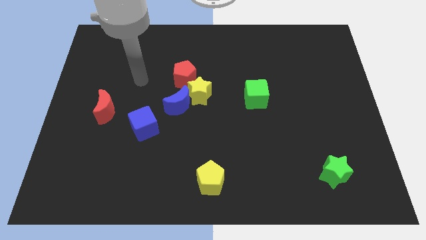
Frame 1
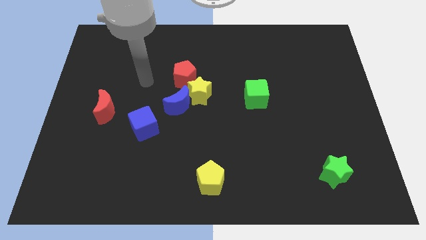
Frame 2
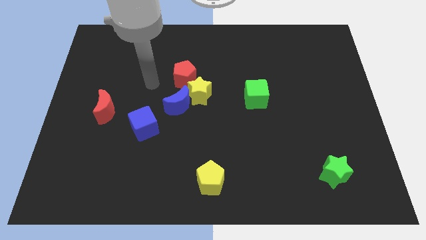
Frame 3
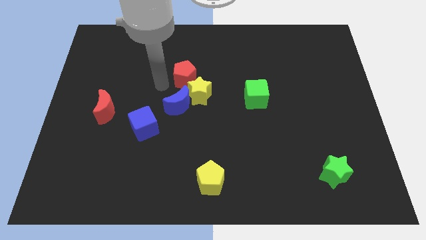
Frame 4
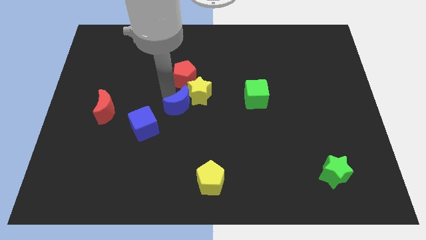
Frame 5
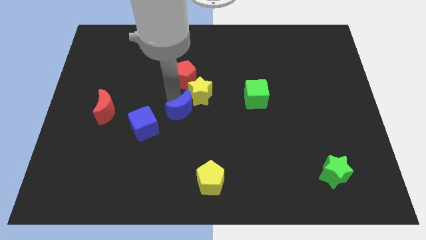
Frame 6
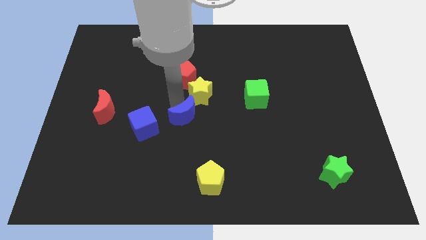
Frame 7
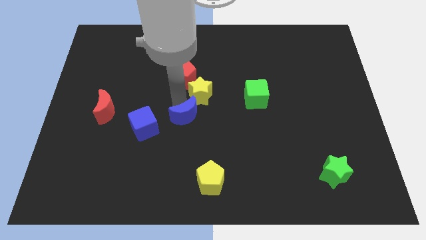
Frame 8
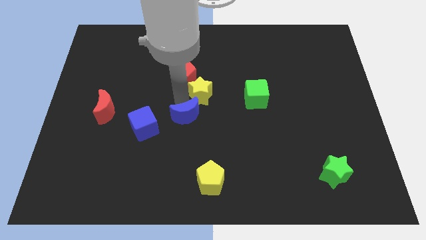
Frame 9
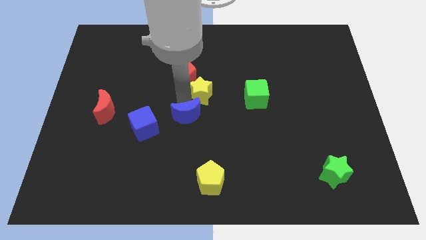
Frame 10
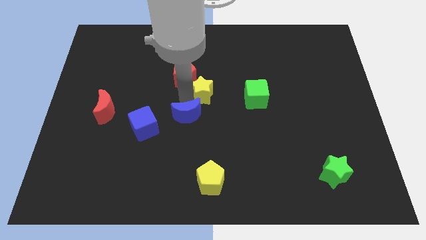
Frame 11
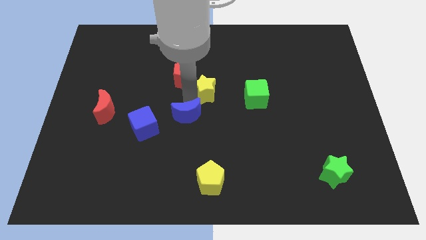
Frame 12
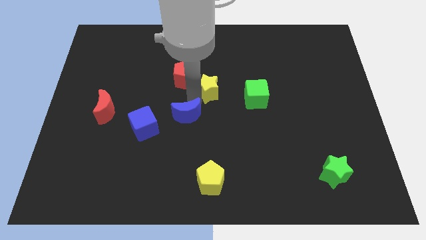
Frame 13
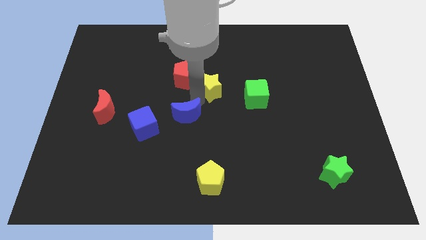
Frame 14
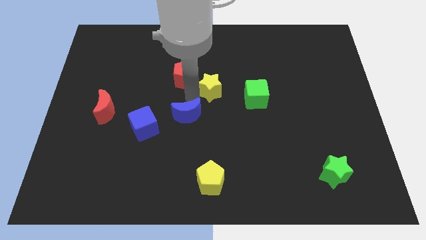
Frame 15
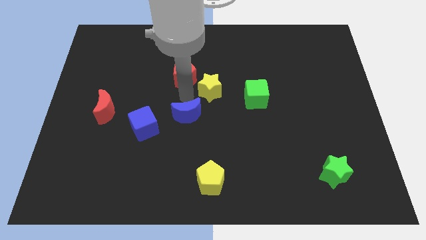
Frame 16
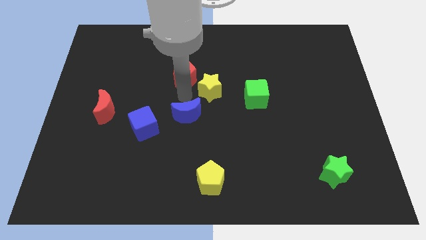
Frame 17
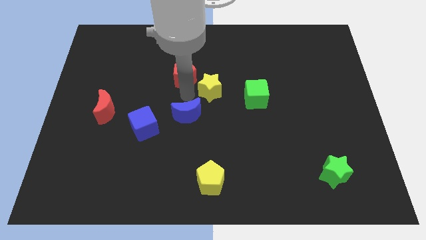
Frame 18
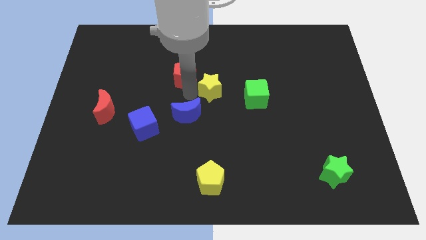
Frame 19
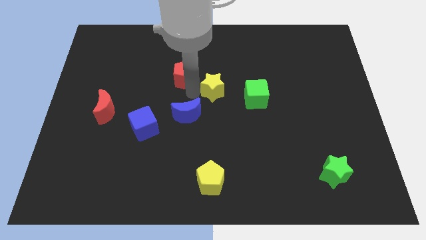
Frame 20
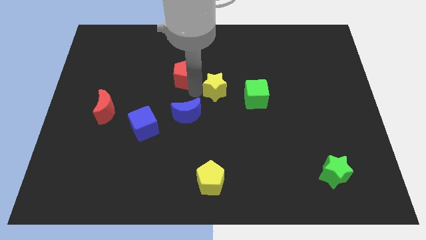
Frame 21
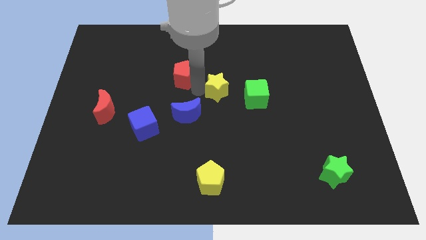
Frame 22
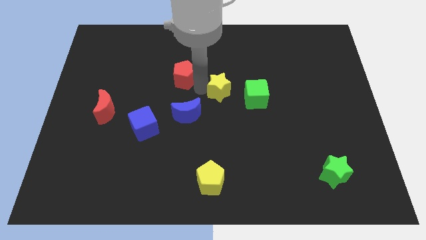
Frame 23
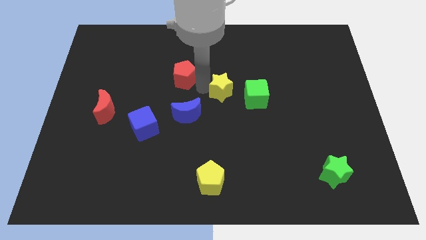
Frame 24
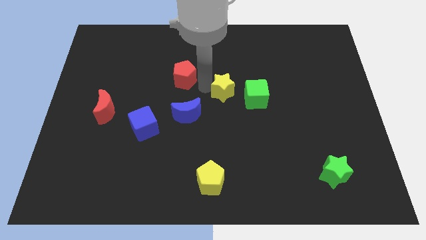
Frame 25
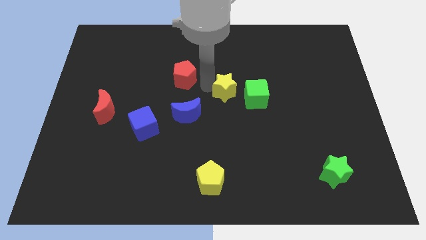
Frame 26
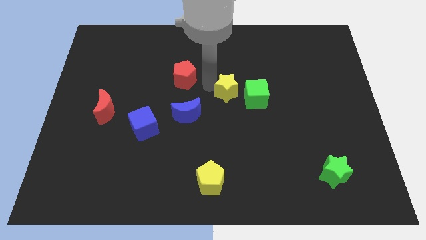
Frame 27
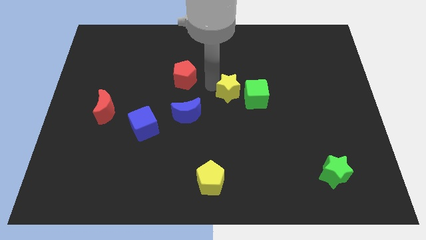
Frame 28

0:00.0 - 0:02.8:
separate the yellow star from the blue moon and red pentagon

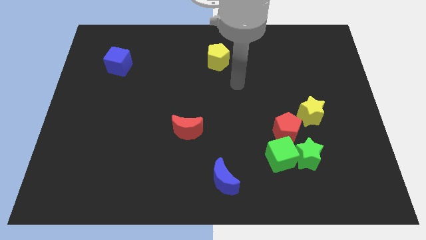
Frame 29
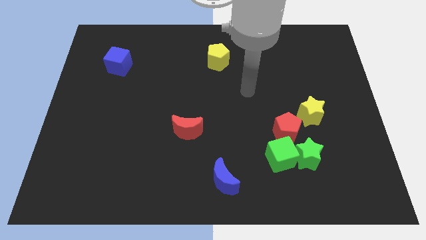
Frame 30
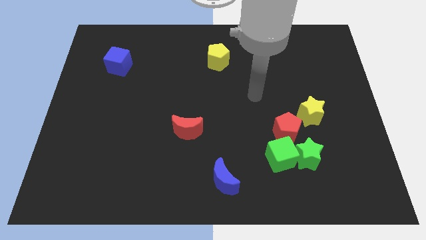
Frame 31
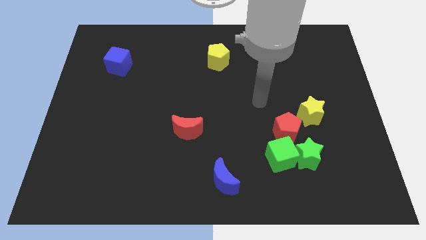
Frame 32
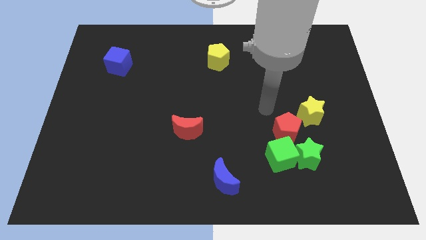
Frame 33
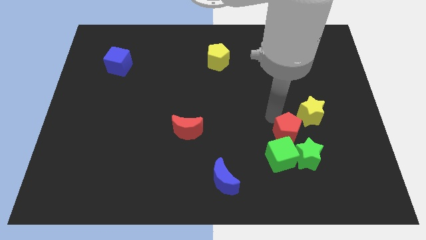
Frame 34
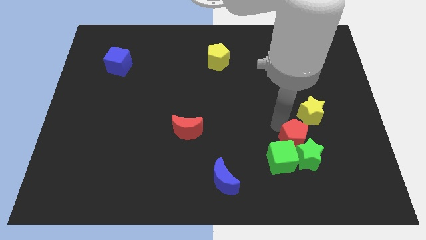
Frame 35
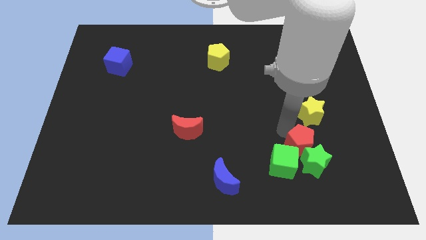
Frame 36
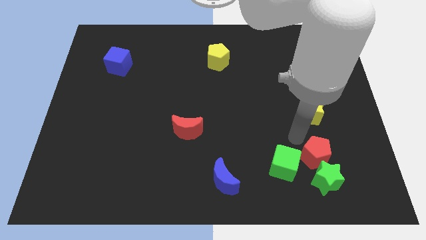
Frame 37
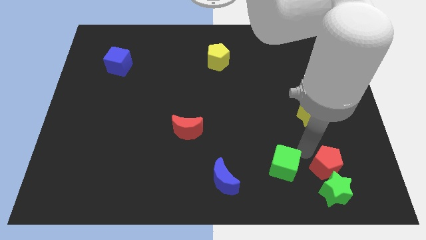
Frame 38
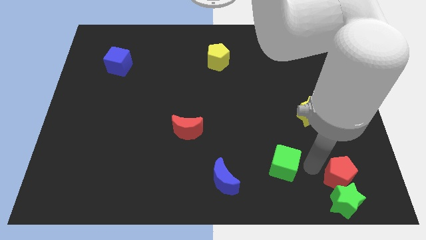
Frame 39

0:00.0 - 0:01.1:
move the green cube away from the green star and red pentagon

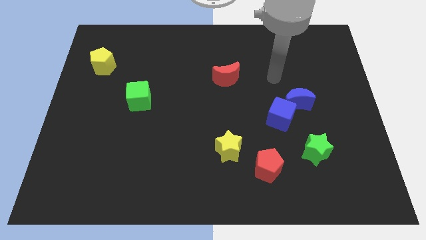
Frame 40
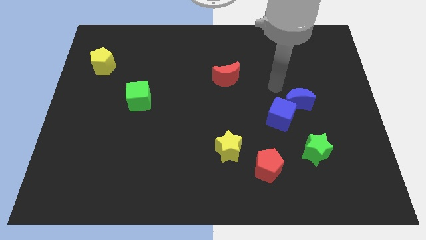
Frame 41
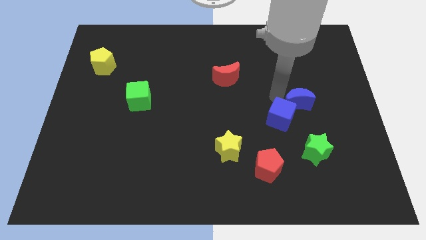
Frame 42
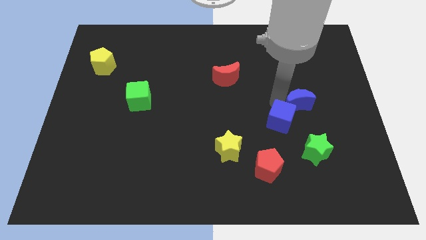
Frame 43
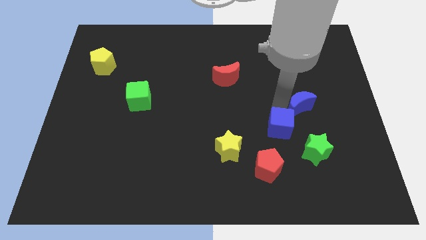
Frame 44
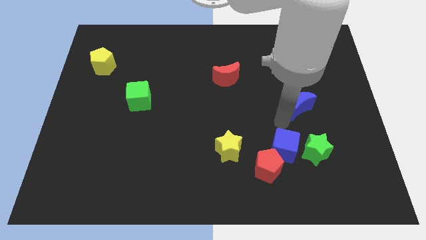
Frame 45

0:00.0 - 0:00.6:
pull the blue moon apart from the blue cube

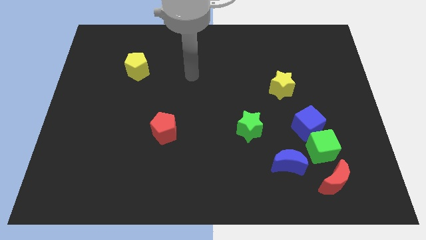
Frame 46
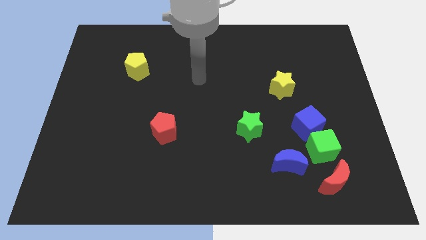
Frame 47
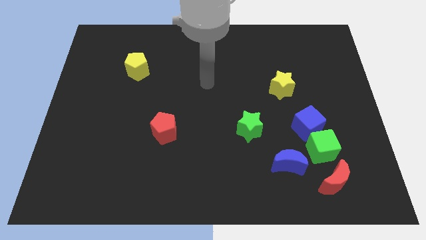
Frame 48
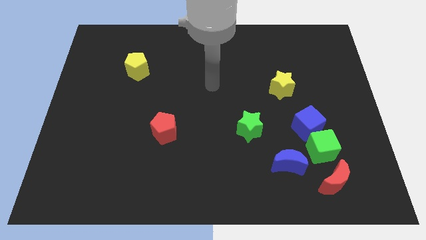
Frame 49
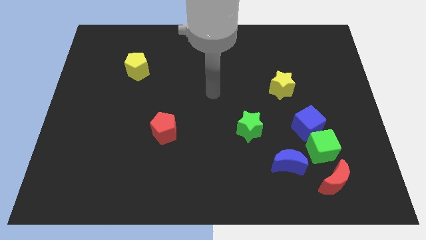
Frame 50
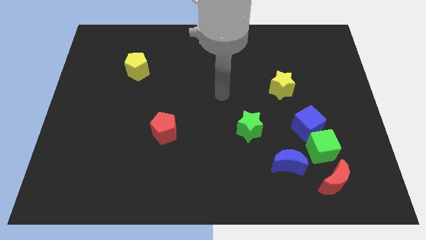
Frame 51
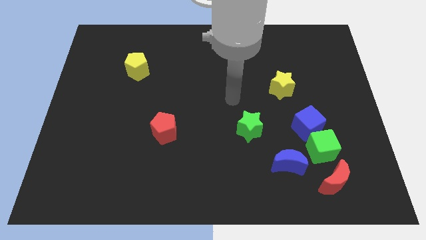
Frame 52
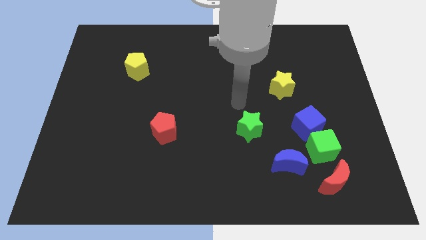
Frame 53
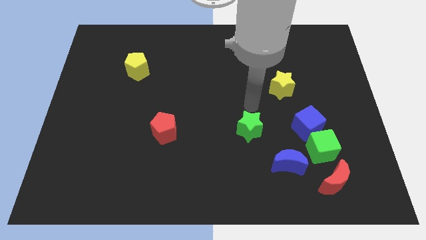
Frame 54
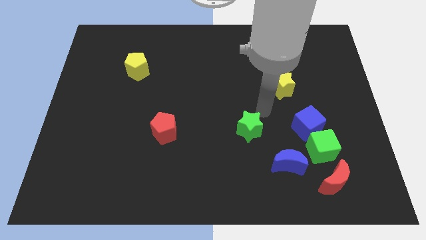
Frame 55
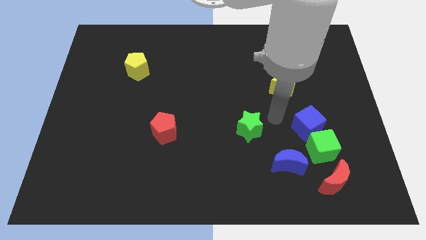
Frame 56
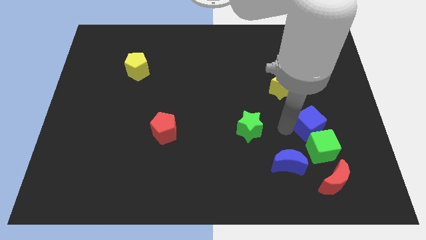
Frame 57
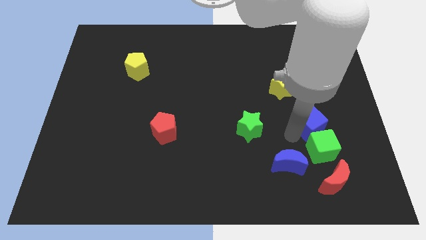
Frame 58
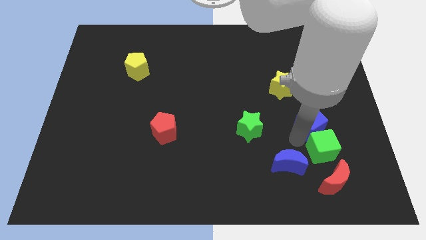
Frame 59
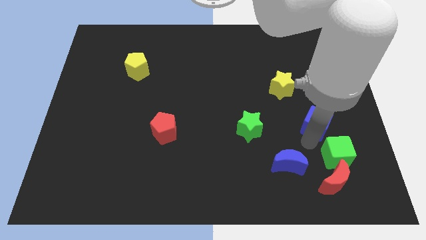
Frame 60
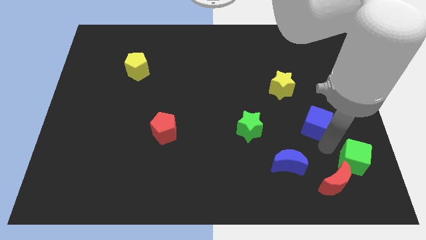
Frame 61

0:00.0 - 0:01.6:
separate the blue cube from the green cube

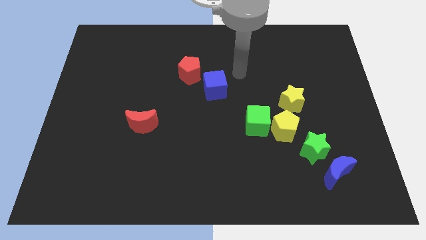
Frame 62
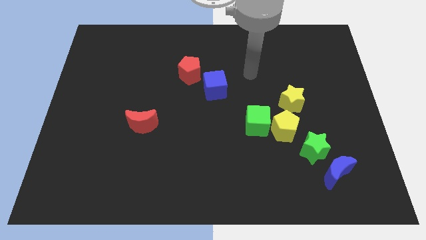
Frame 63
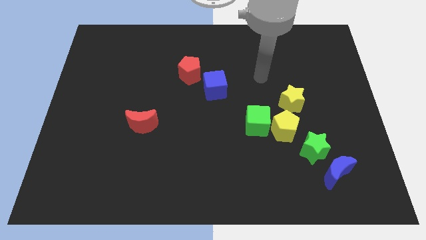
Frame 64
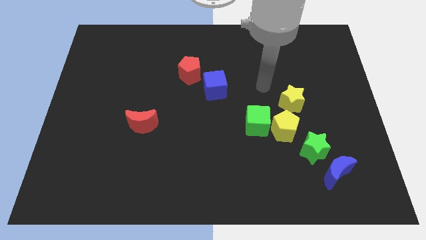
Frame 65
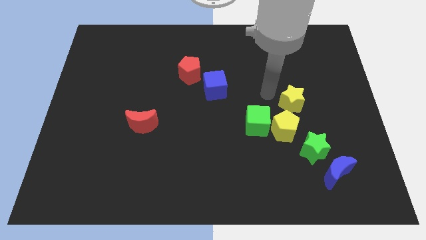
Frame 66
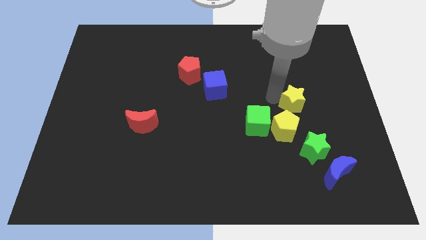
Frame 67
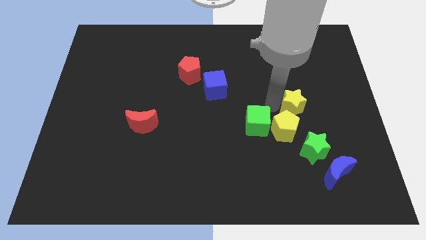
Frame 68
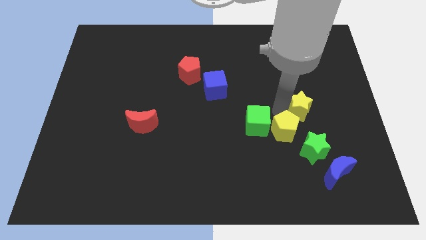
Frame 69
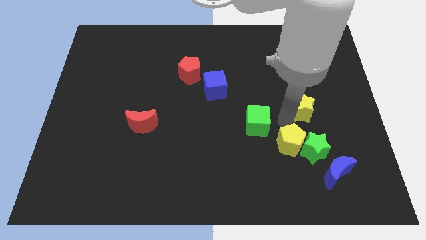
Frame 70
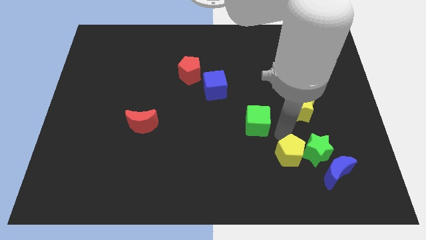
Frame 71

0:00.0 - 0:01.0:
separate the green cube from the yellow pentagon

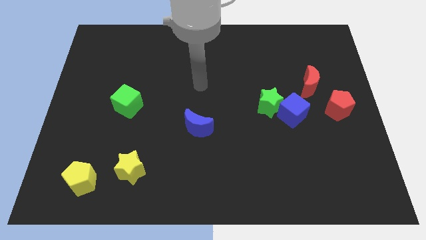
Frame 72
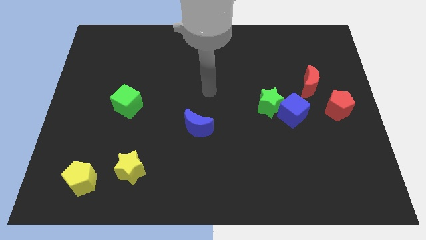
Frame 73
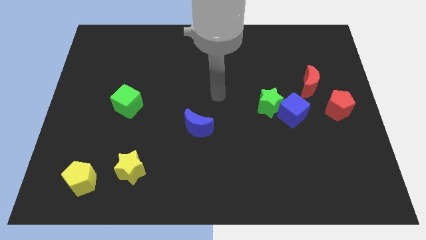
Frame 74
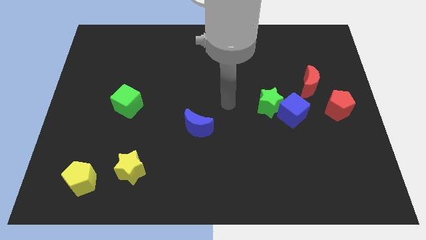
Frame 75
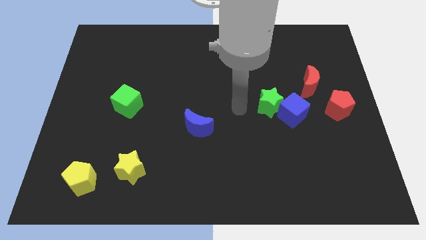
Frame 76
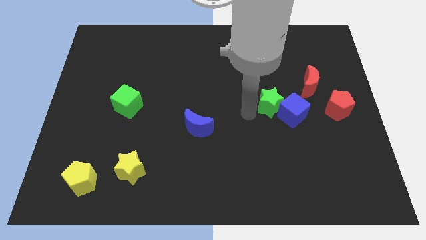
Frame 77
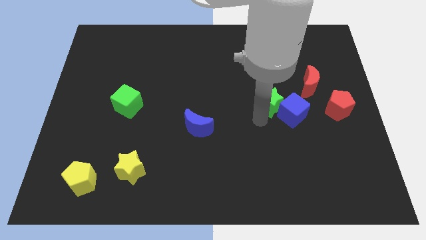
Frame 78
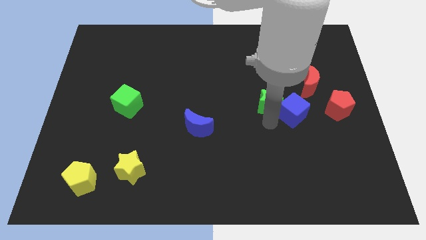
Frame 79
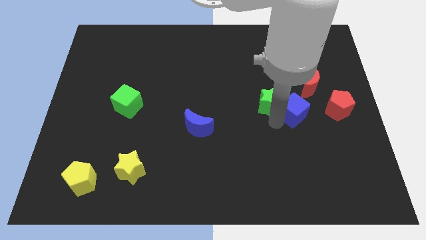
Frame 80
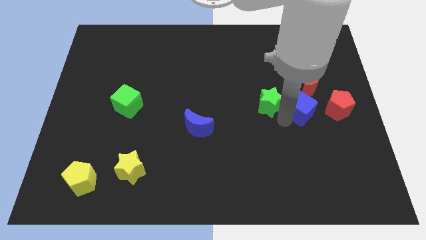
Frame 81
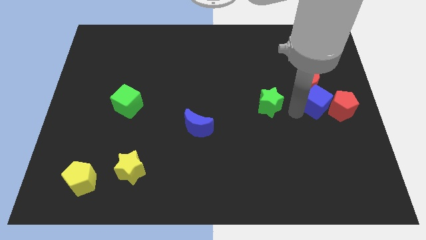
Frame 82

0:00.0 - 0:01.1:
pull the green star apart from the blue cube

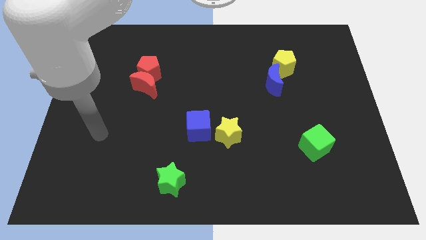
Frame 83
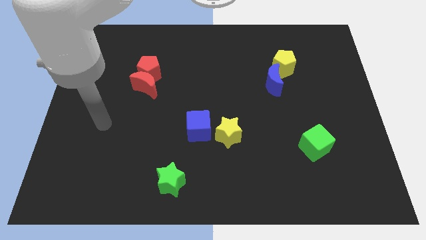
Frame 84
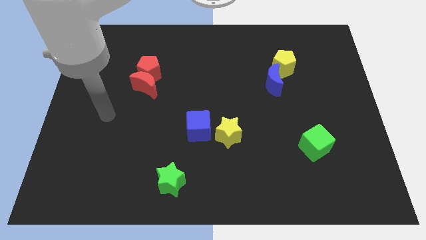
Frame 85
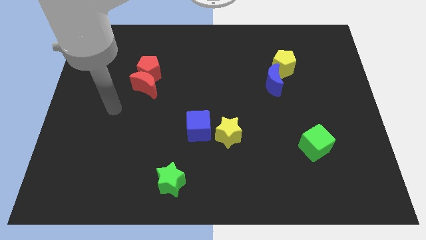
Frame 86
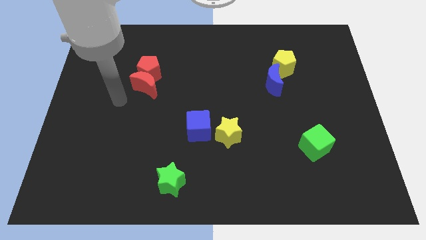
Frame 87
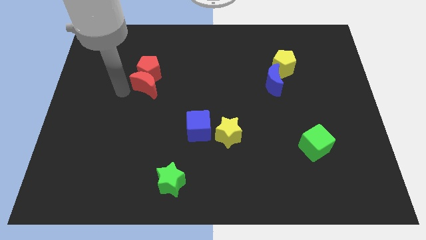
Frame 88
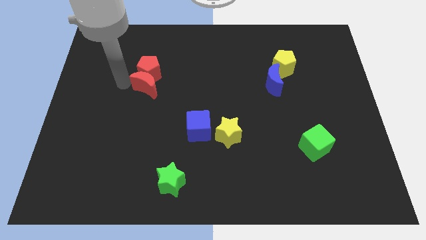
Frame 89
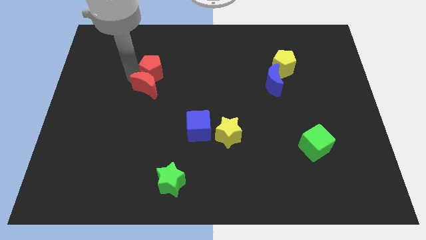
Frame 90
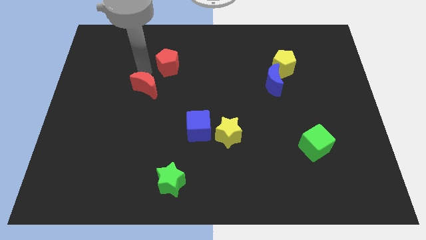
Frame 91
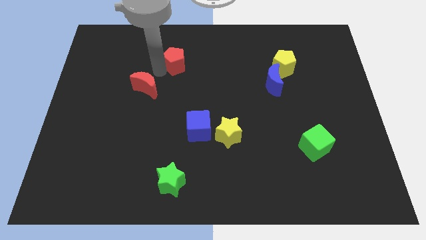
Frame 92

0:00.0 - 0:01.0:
move the red moon away from the red pentagon
